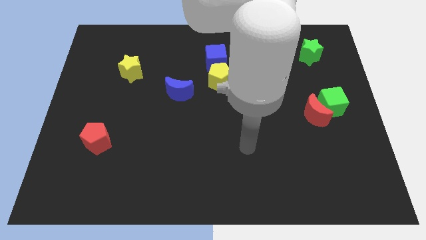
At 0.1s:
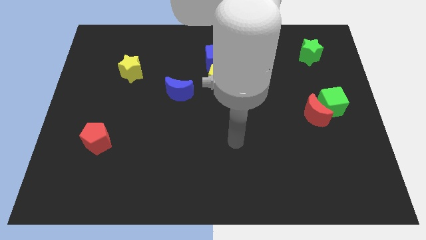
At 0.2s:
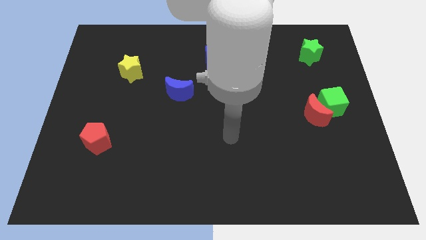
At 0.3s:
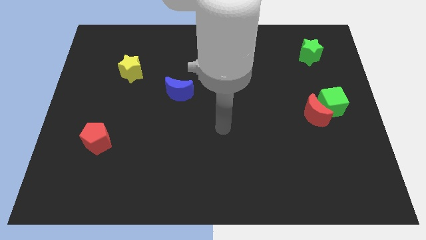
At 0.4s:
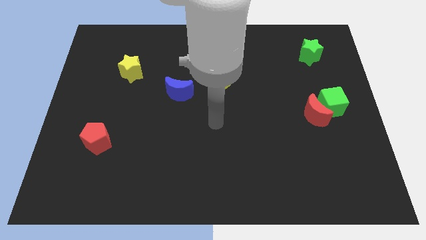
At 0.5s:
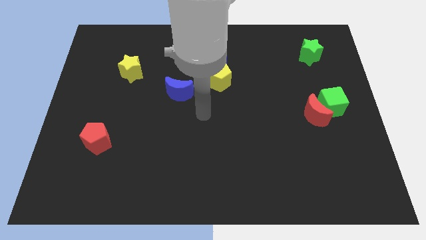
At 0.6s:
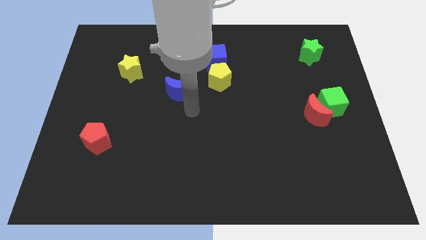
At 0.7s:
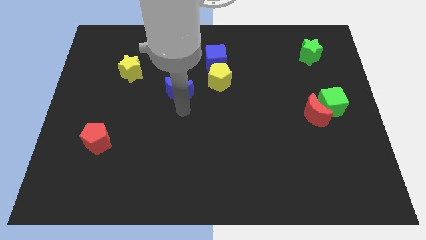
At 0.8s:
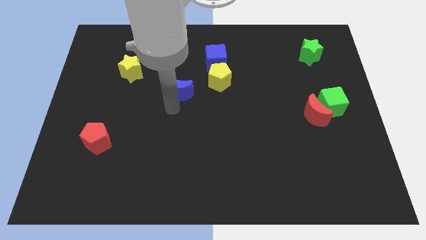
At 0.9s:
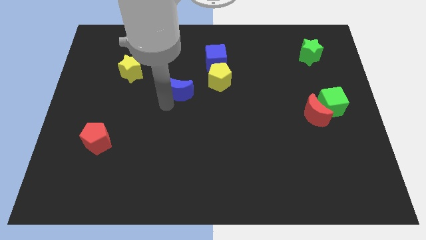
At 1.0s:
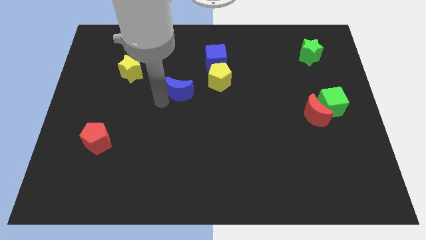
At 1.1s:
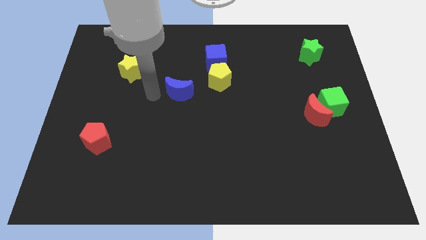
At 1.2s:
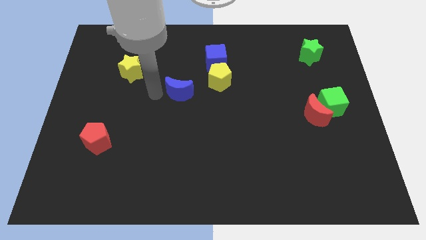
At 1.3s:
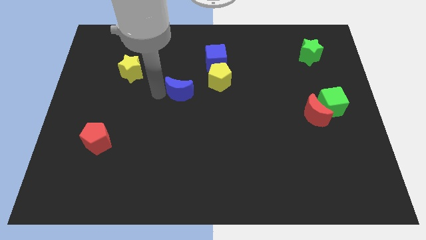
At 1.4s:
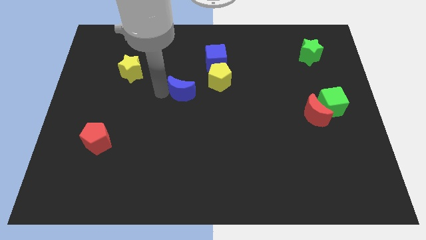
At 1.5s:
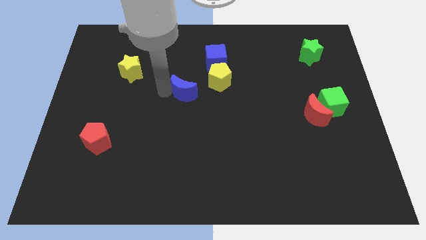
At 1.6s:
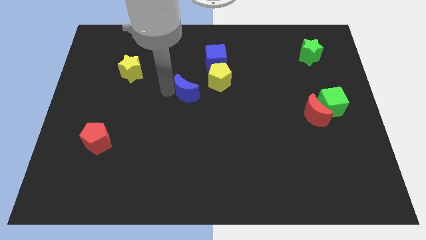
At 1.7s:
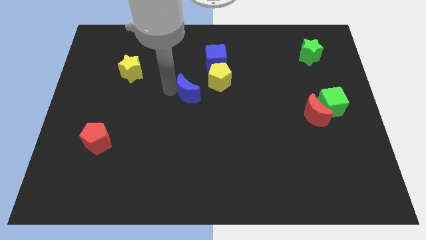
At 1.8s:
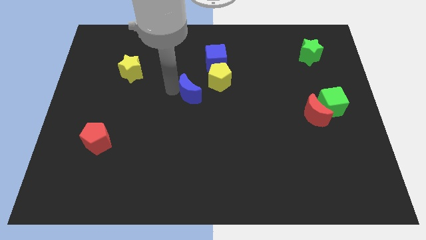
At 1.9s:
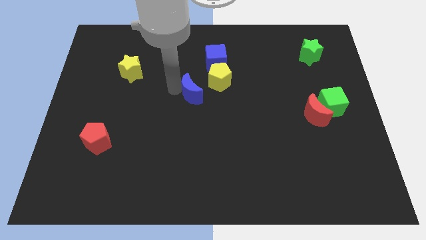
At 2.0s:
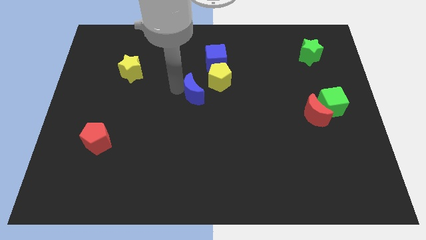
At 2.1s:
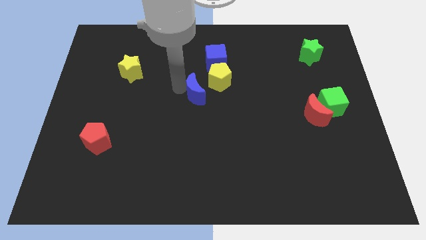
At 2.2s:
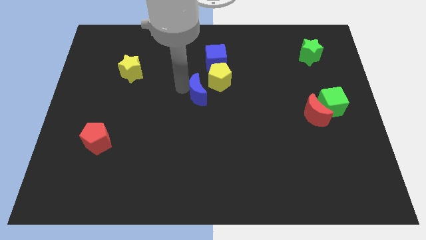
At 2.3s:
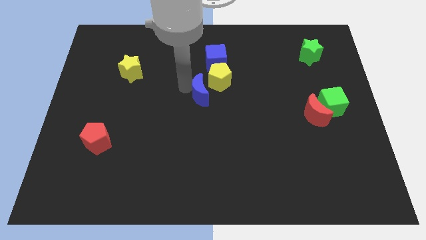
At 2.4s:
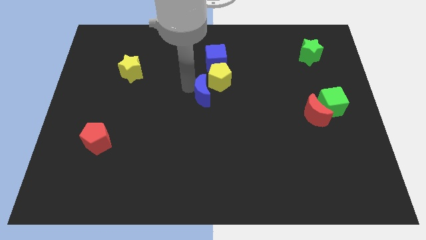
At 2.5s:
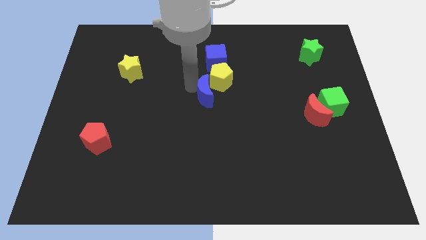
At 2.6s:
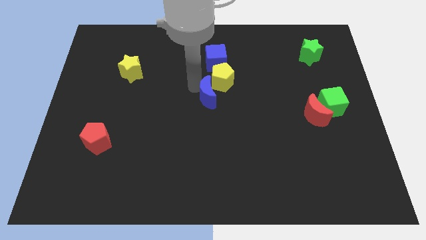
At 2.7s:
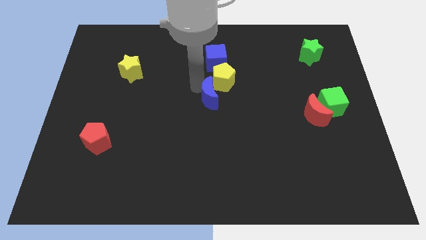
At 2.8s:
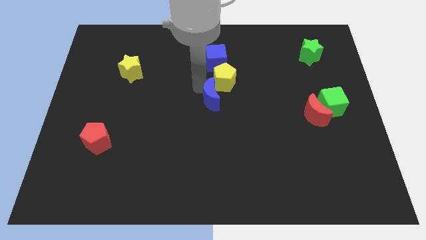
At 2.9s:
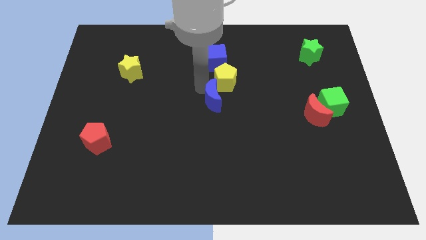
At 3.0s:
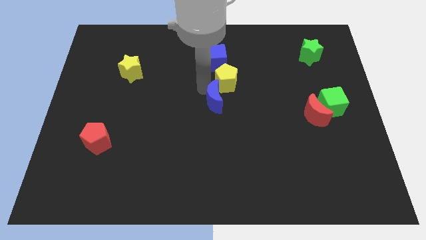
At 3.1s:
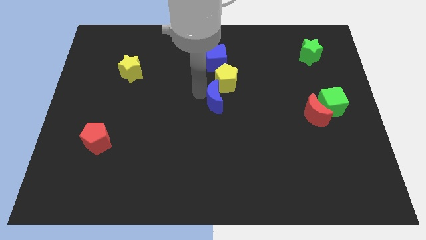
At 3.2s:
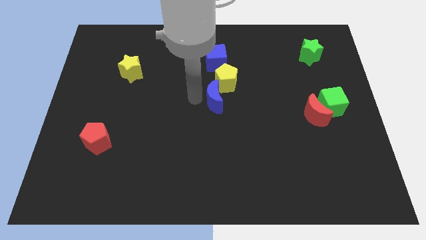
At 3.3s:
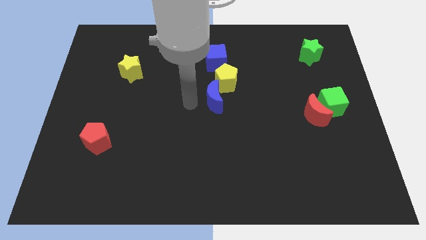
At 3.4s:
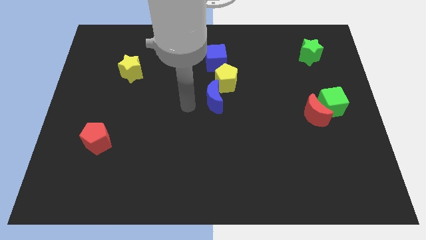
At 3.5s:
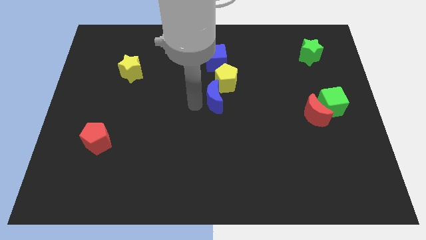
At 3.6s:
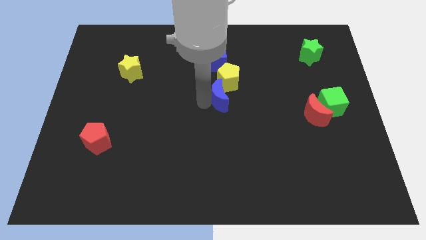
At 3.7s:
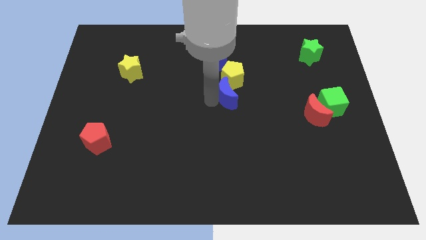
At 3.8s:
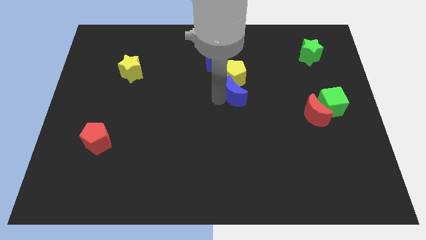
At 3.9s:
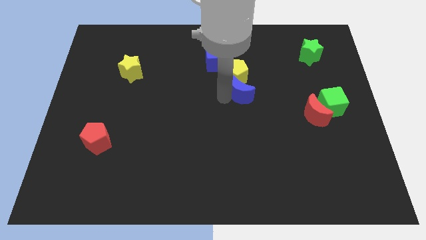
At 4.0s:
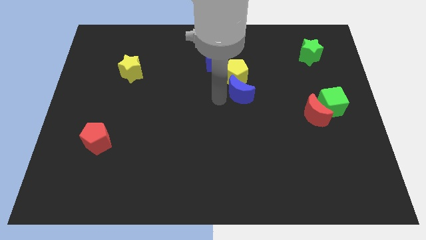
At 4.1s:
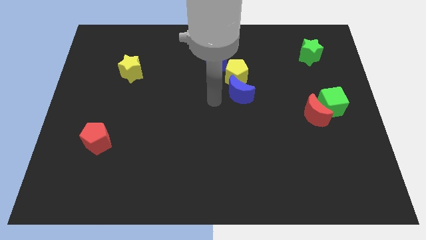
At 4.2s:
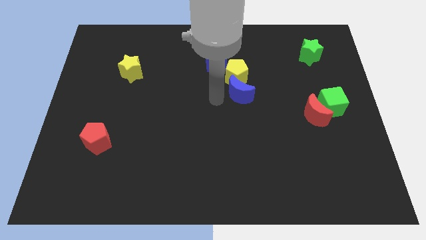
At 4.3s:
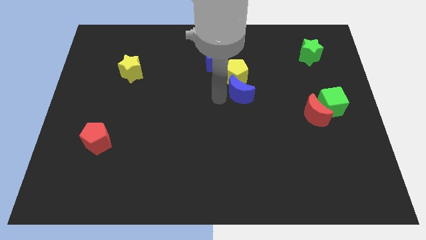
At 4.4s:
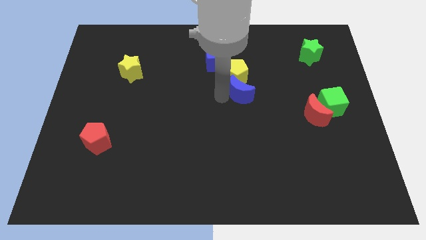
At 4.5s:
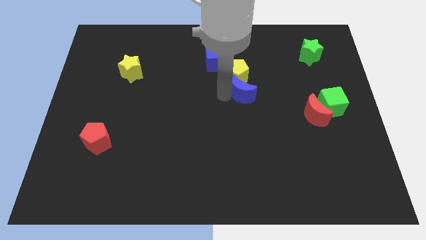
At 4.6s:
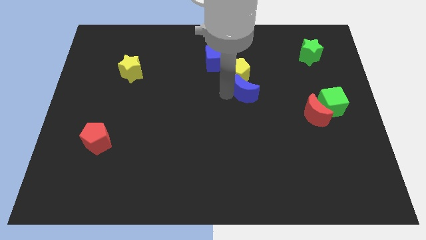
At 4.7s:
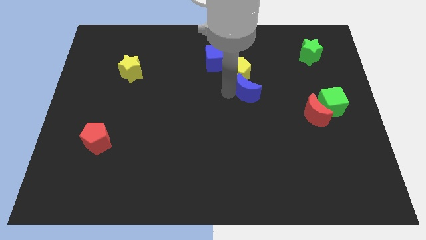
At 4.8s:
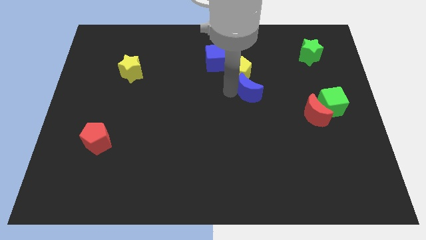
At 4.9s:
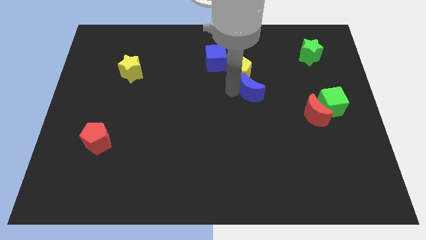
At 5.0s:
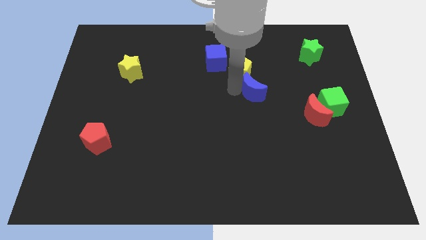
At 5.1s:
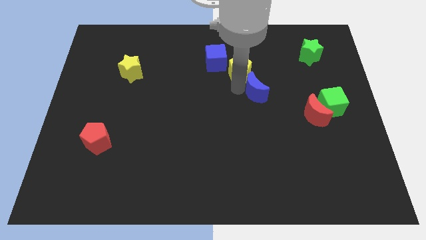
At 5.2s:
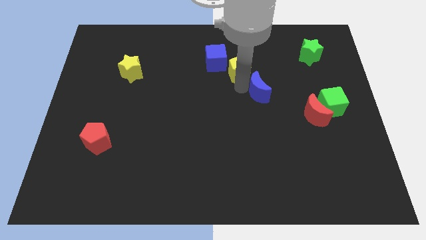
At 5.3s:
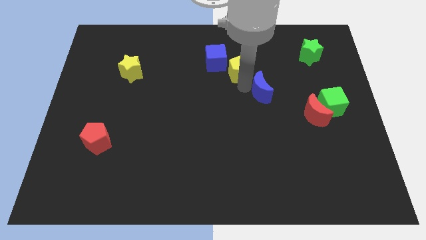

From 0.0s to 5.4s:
push the blue moon right

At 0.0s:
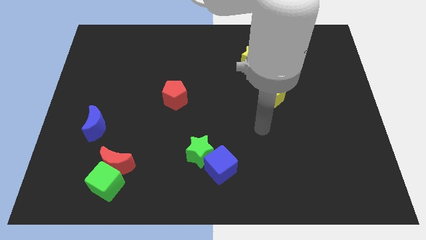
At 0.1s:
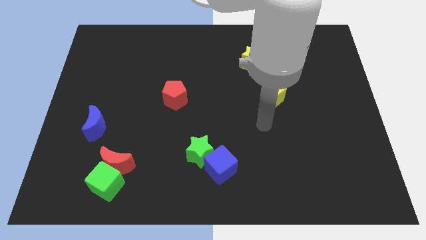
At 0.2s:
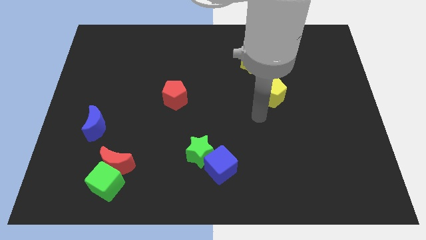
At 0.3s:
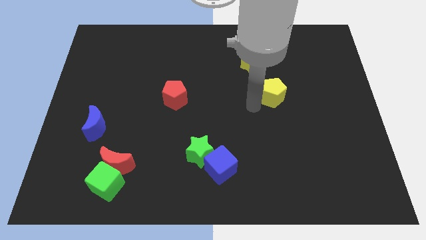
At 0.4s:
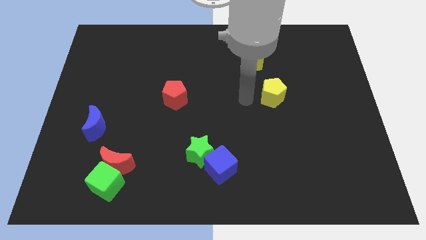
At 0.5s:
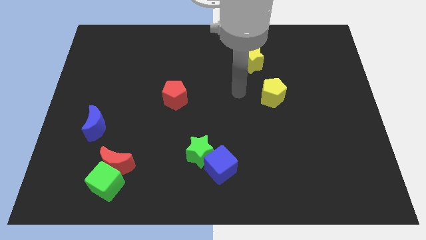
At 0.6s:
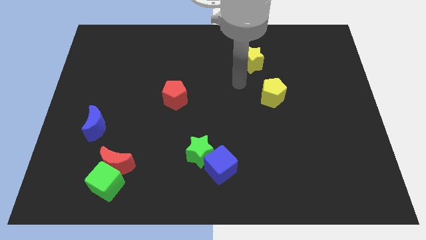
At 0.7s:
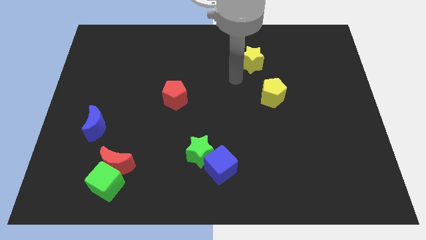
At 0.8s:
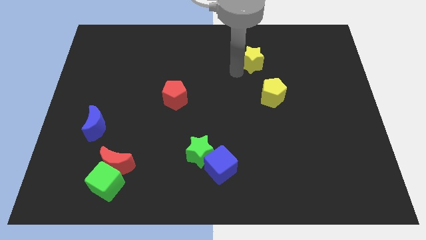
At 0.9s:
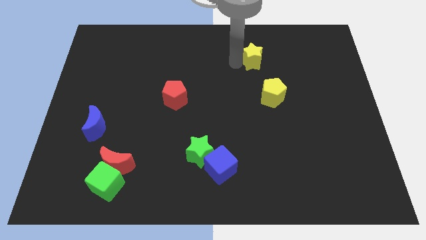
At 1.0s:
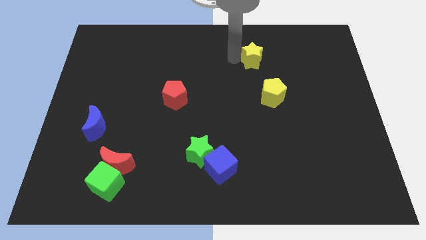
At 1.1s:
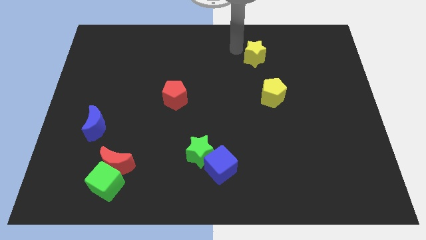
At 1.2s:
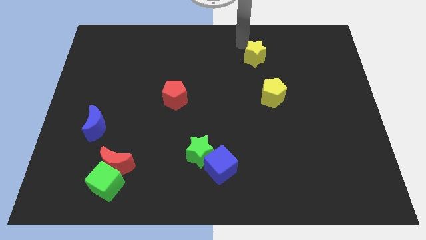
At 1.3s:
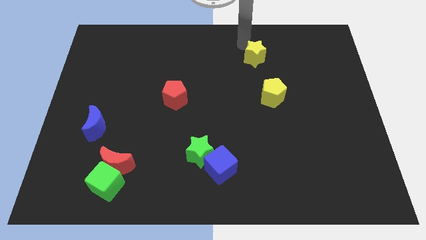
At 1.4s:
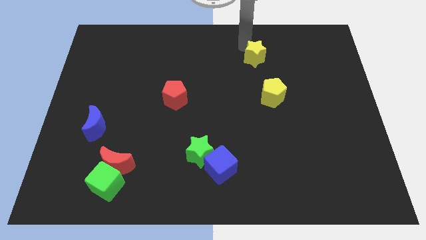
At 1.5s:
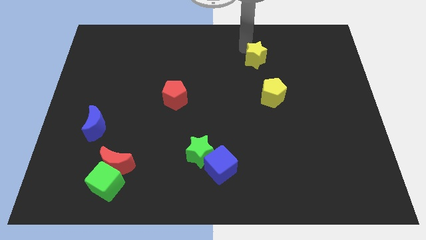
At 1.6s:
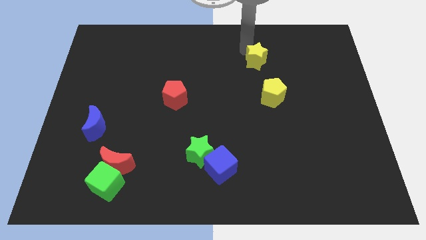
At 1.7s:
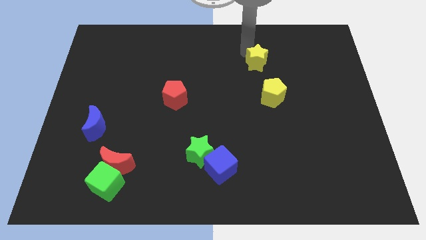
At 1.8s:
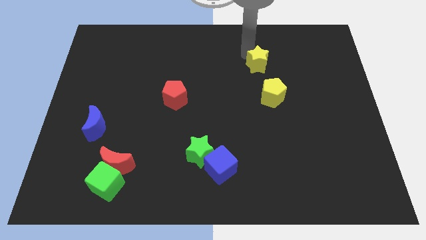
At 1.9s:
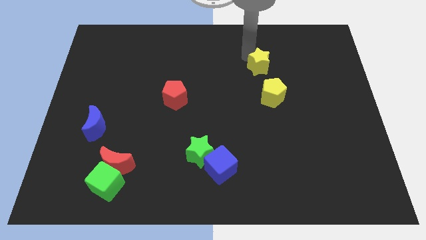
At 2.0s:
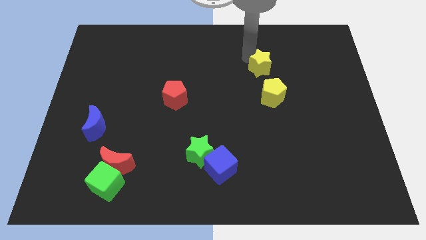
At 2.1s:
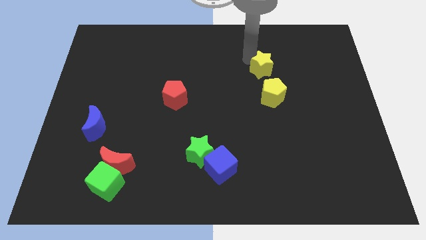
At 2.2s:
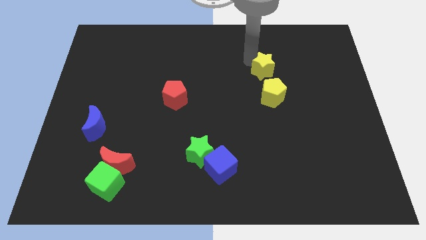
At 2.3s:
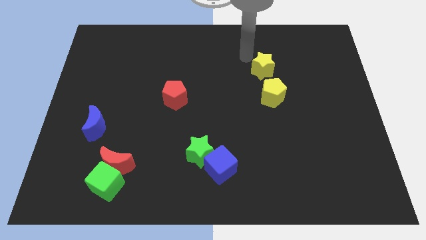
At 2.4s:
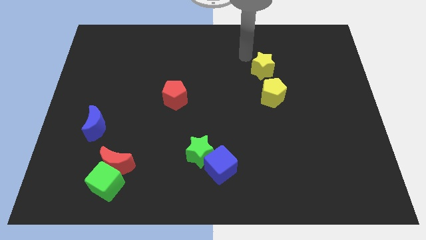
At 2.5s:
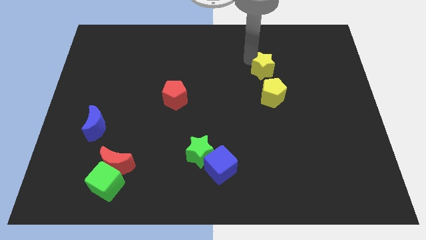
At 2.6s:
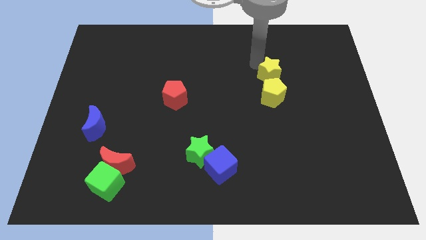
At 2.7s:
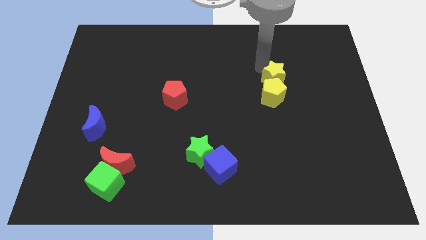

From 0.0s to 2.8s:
slightly move the yellow star down and then right
